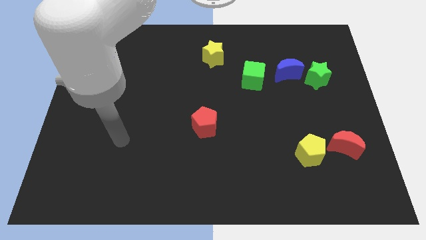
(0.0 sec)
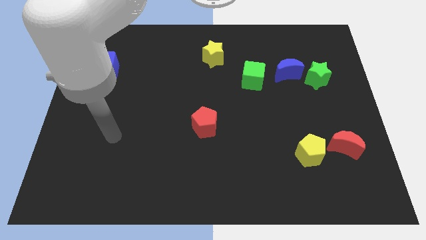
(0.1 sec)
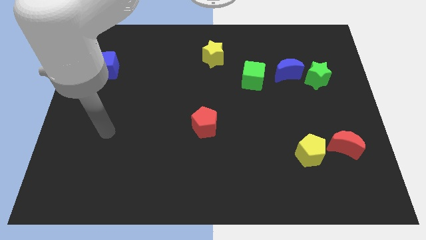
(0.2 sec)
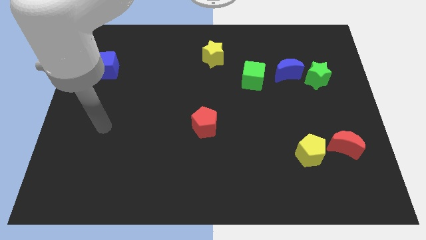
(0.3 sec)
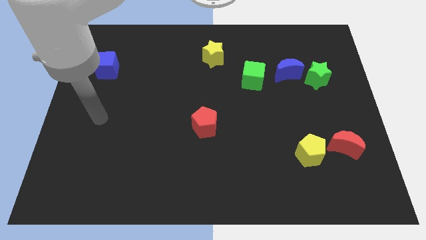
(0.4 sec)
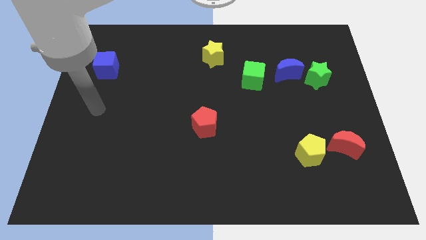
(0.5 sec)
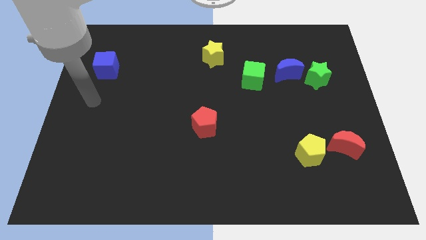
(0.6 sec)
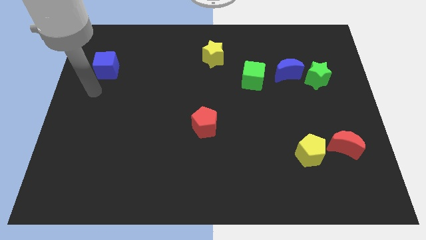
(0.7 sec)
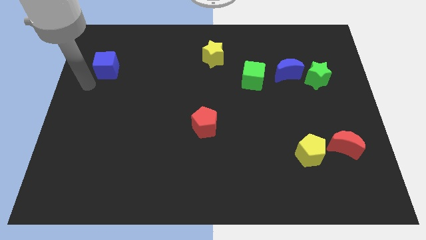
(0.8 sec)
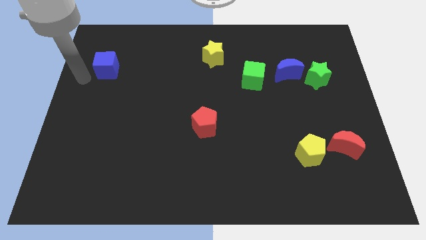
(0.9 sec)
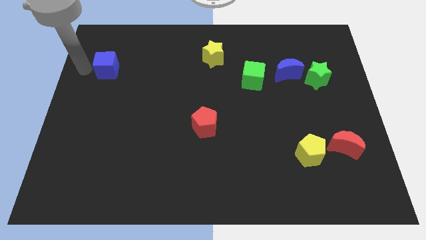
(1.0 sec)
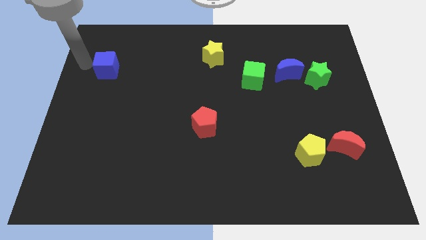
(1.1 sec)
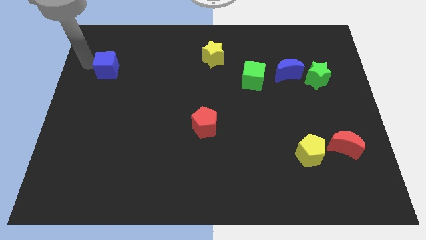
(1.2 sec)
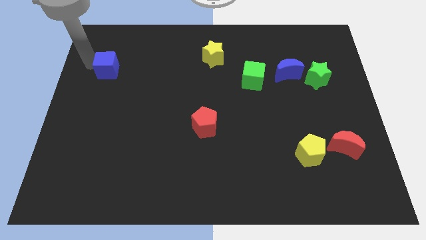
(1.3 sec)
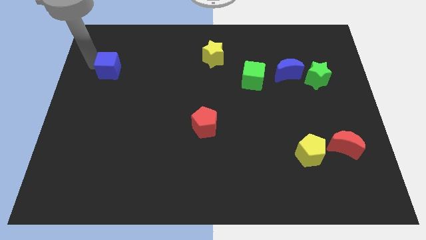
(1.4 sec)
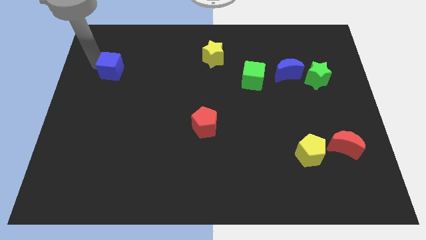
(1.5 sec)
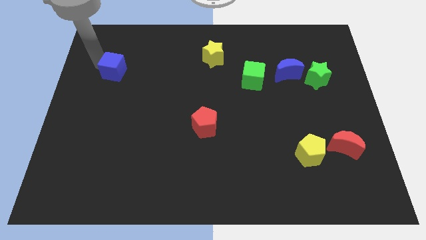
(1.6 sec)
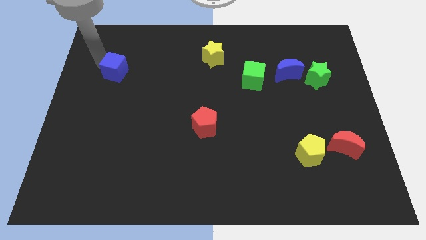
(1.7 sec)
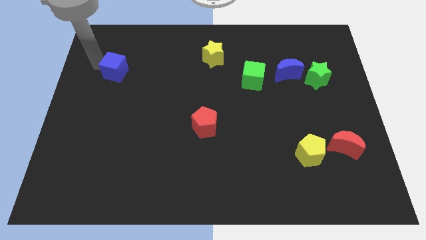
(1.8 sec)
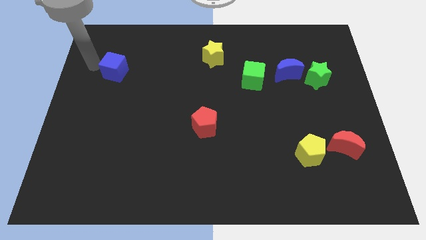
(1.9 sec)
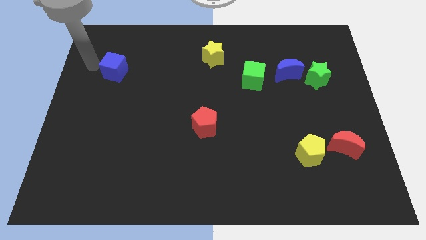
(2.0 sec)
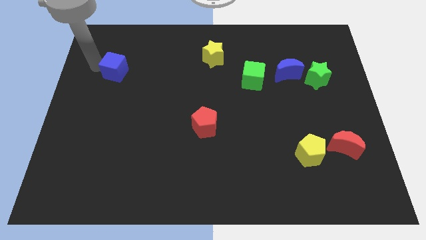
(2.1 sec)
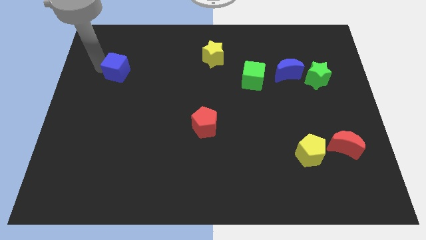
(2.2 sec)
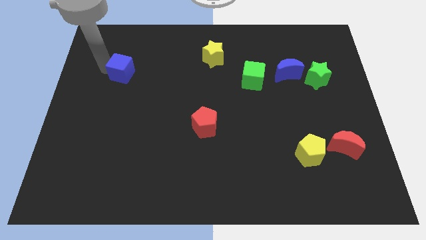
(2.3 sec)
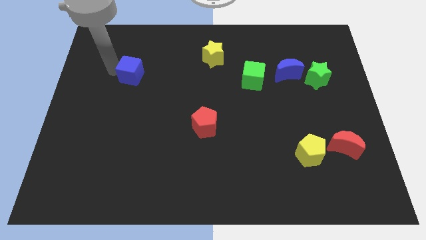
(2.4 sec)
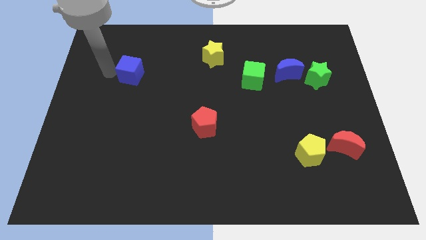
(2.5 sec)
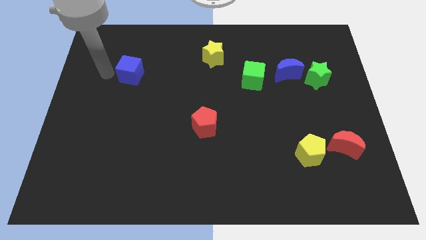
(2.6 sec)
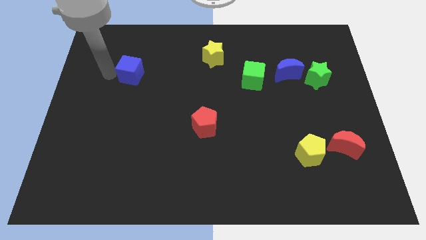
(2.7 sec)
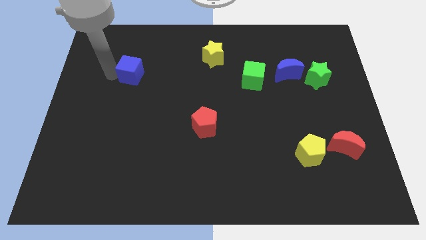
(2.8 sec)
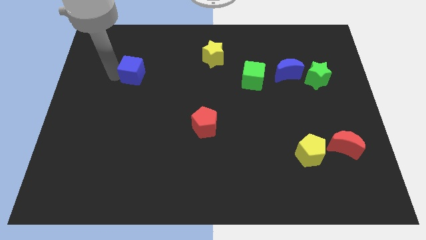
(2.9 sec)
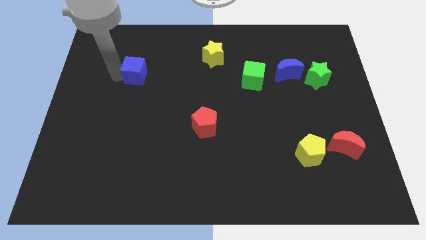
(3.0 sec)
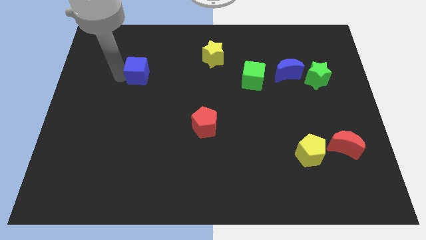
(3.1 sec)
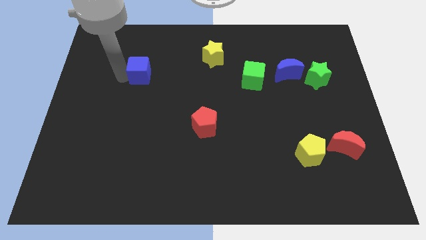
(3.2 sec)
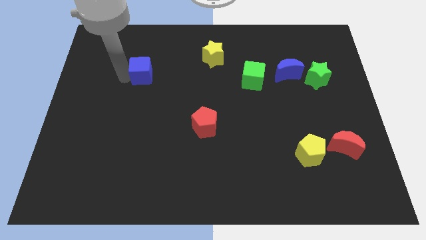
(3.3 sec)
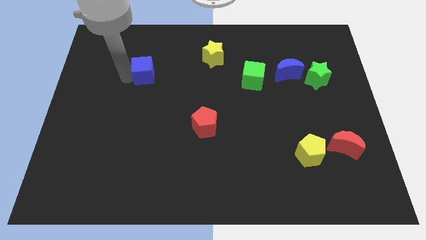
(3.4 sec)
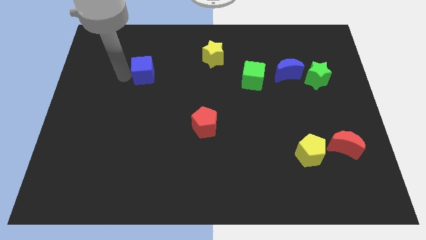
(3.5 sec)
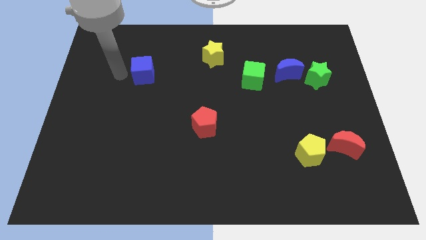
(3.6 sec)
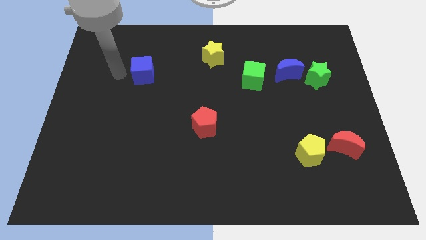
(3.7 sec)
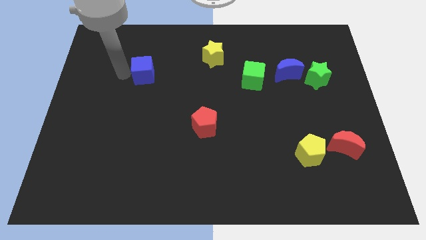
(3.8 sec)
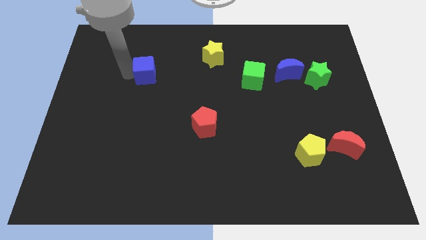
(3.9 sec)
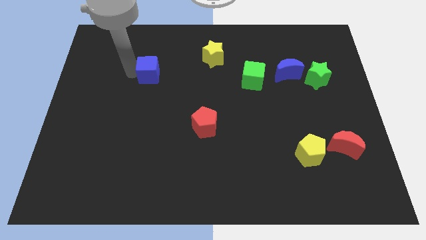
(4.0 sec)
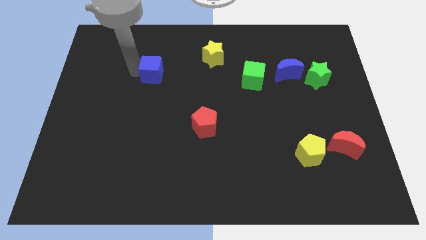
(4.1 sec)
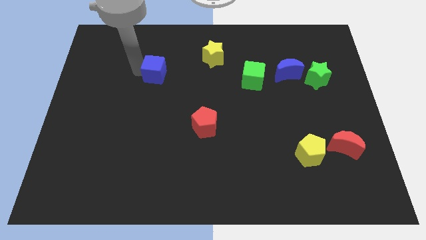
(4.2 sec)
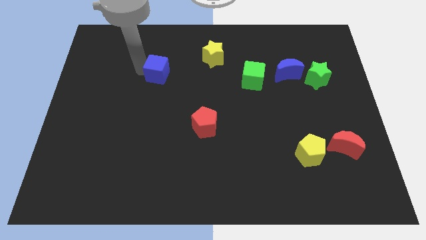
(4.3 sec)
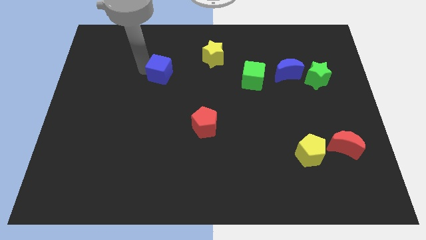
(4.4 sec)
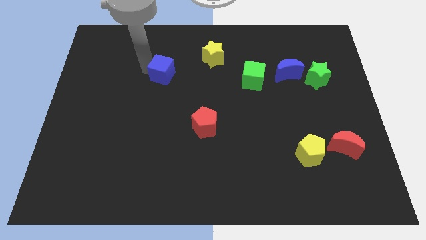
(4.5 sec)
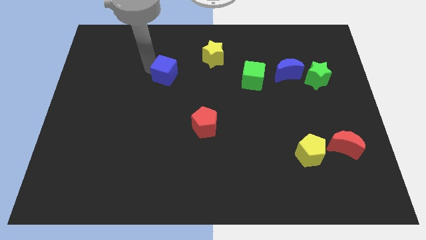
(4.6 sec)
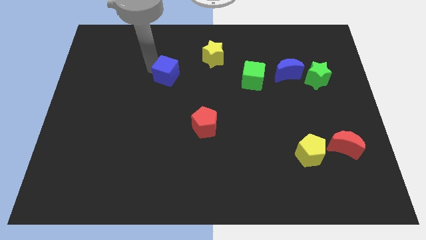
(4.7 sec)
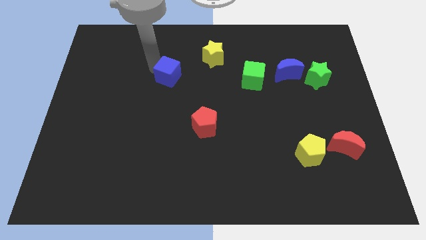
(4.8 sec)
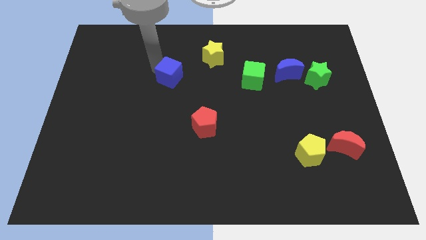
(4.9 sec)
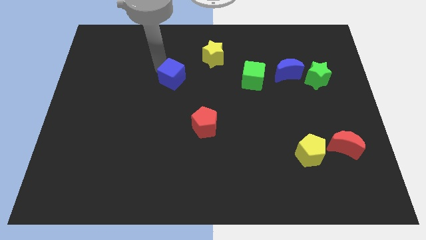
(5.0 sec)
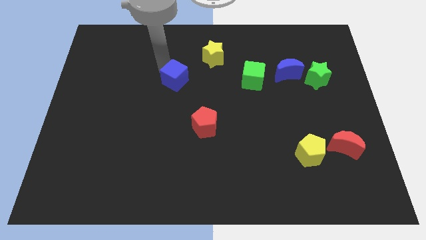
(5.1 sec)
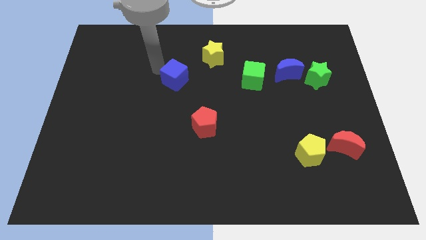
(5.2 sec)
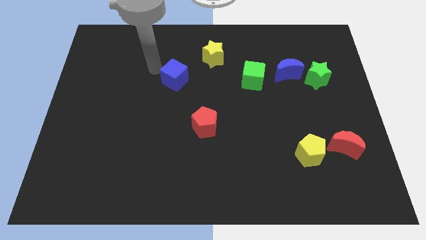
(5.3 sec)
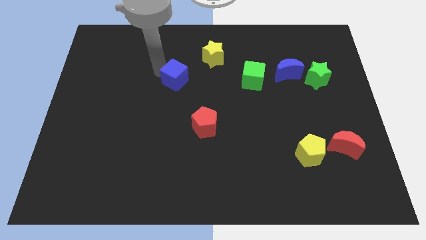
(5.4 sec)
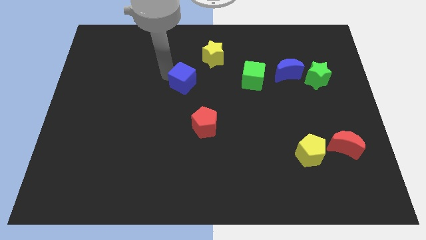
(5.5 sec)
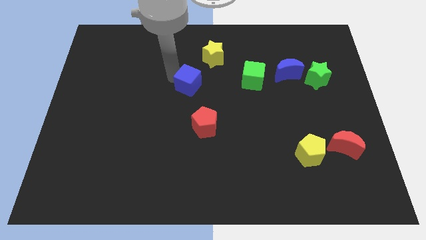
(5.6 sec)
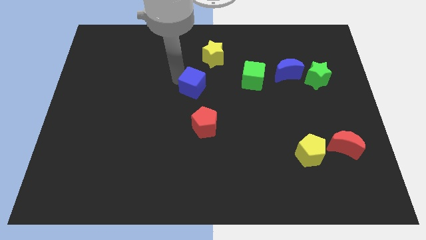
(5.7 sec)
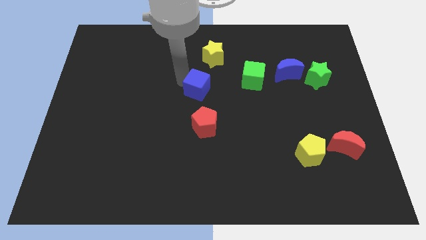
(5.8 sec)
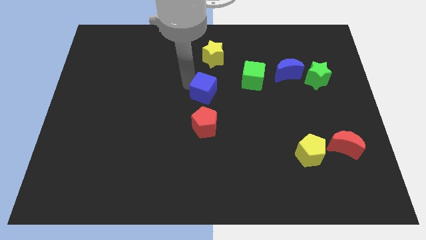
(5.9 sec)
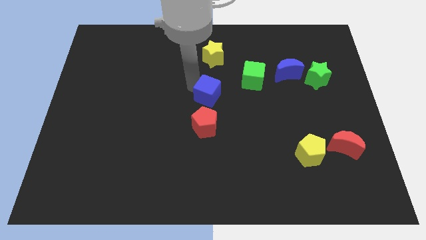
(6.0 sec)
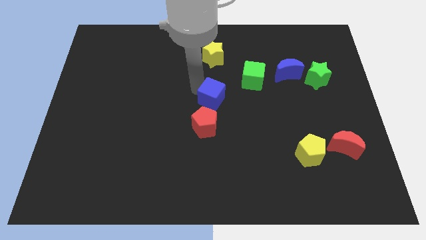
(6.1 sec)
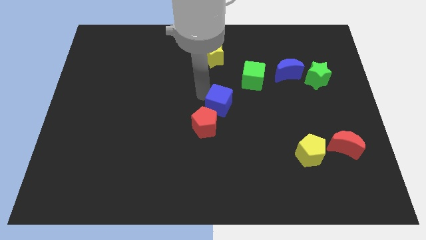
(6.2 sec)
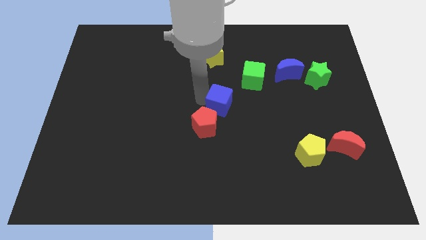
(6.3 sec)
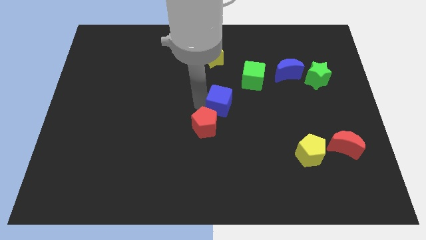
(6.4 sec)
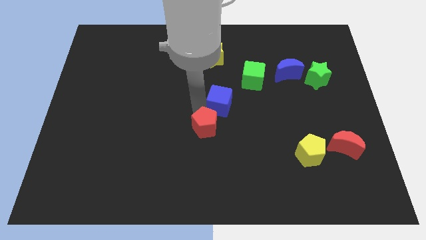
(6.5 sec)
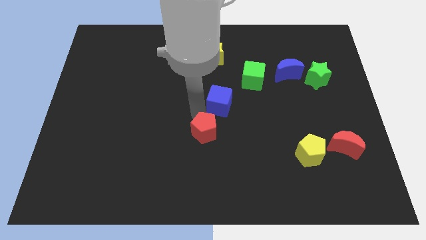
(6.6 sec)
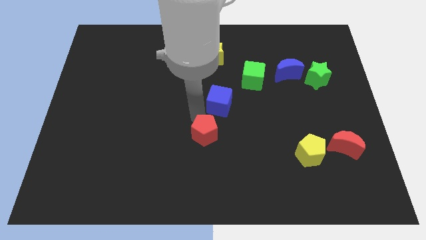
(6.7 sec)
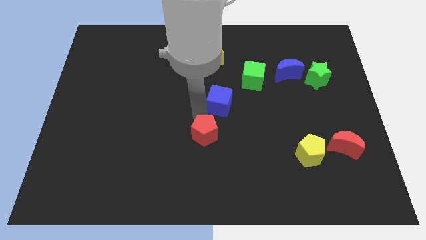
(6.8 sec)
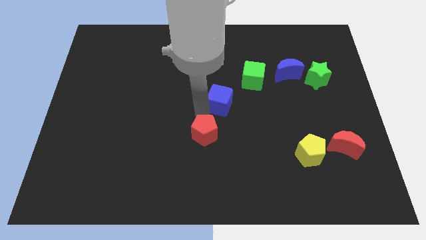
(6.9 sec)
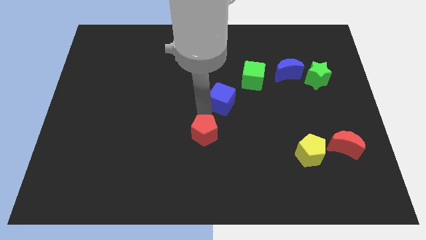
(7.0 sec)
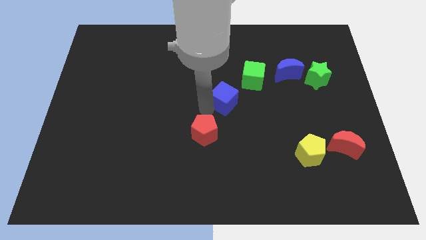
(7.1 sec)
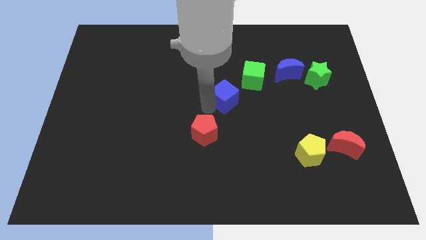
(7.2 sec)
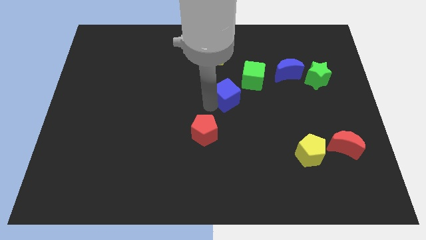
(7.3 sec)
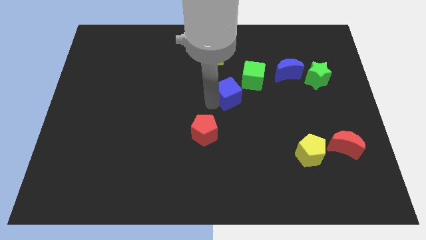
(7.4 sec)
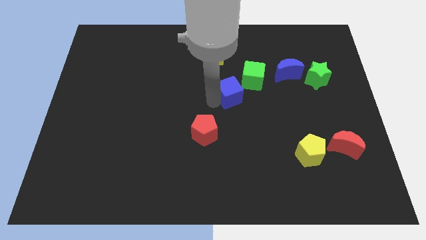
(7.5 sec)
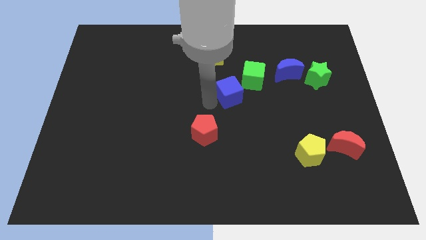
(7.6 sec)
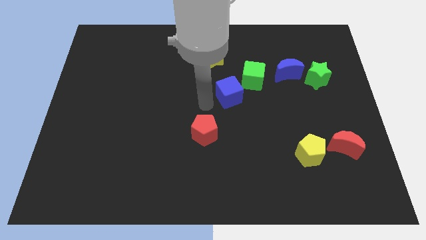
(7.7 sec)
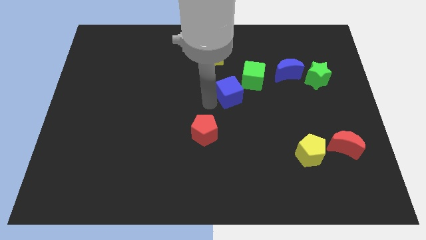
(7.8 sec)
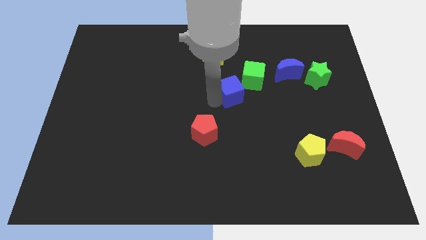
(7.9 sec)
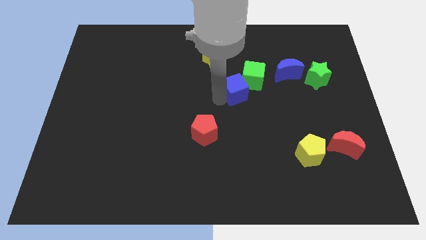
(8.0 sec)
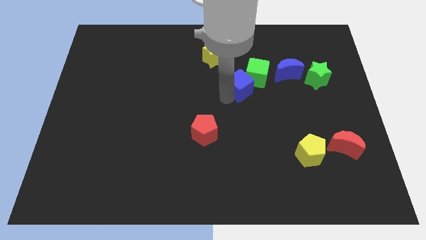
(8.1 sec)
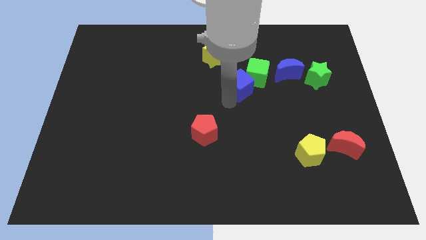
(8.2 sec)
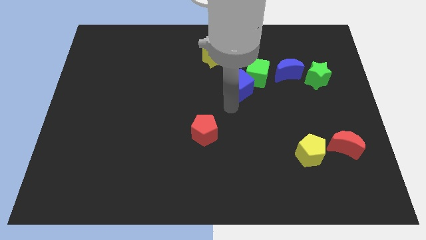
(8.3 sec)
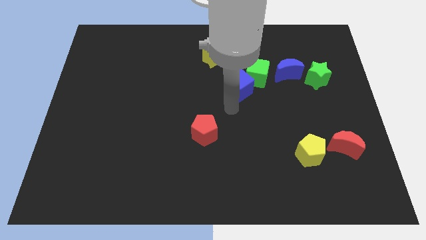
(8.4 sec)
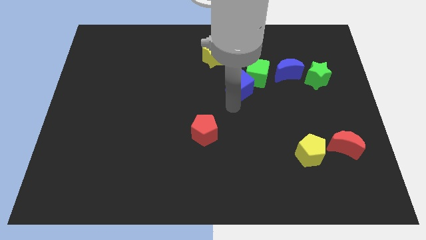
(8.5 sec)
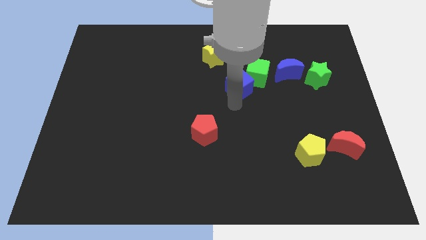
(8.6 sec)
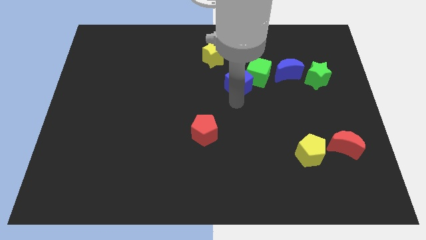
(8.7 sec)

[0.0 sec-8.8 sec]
put the blue cube just left of the blue moon
